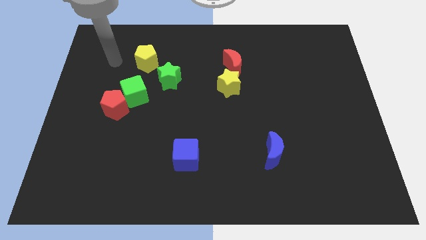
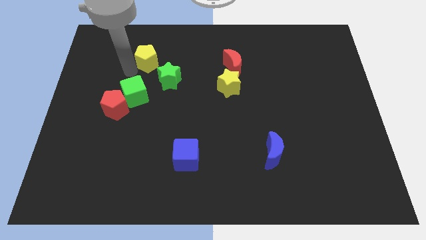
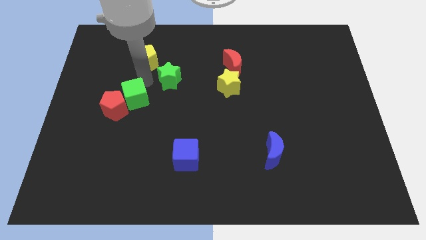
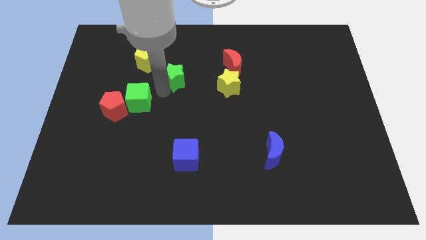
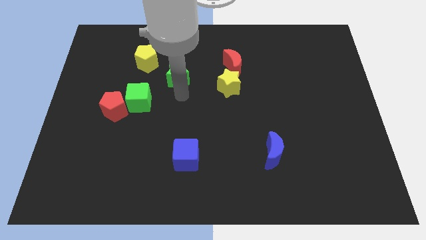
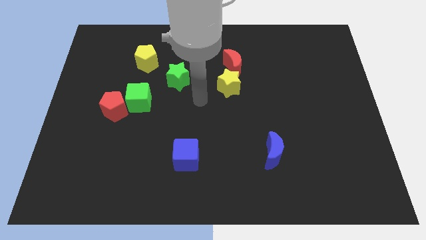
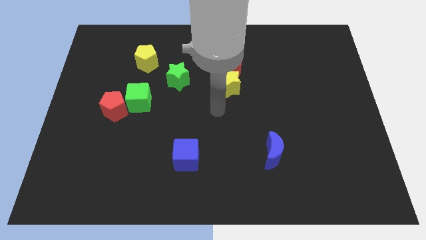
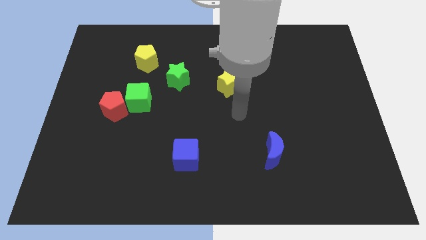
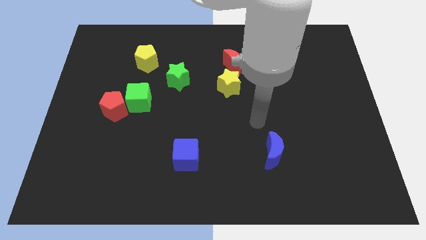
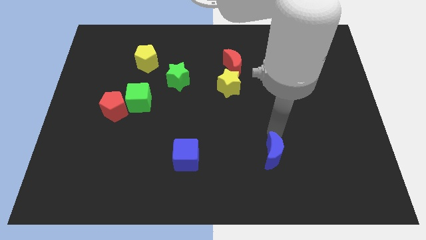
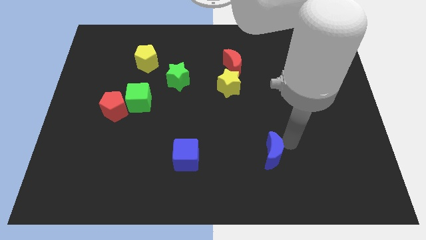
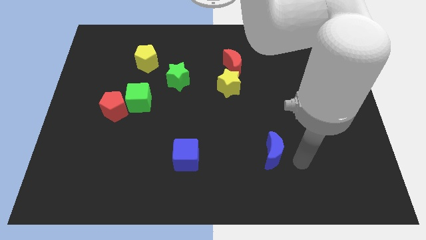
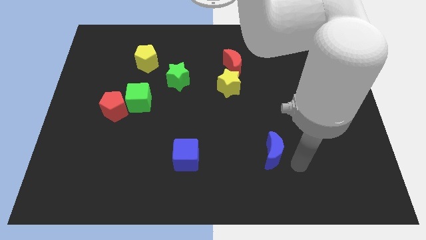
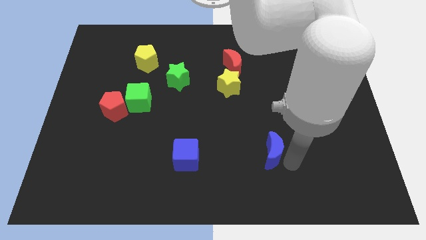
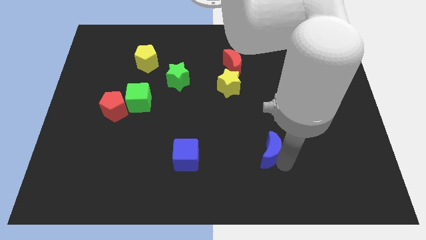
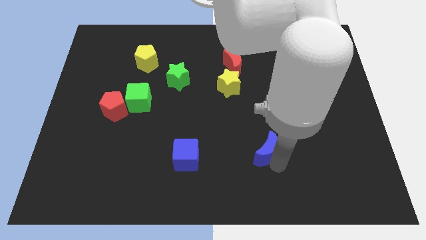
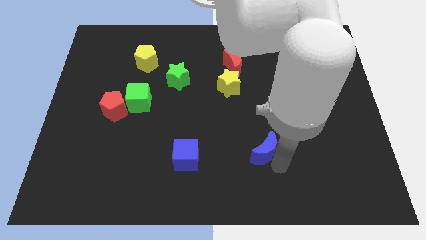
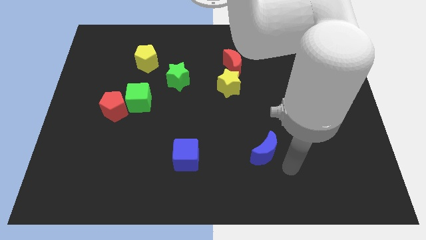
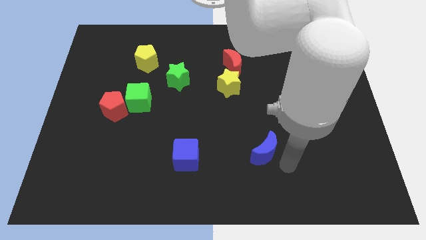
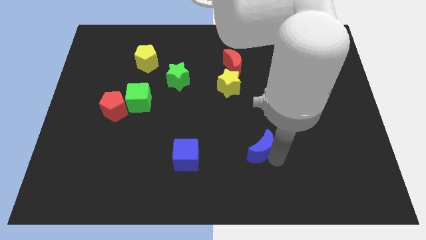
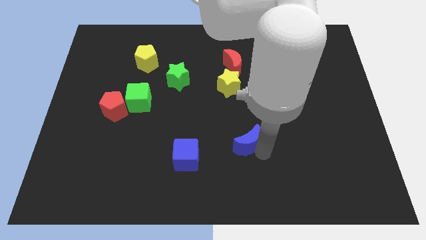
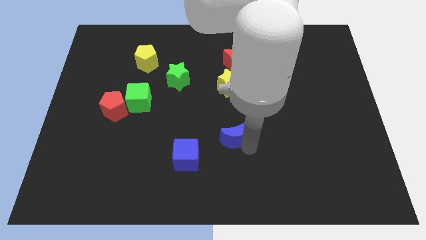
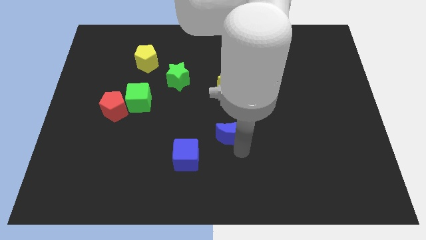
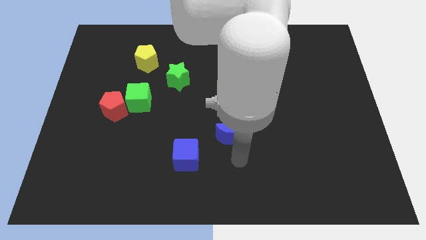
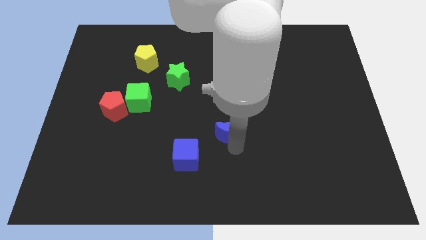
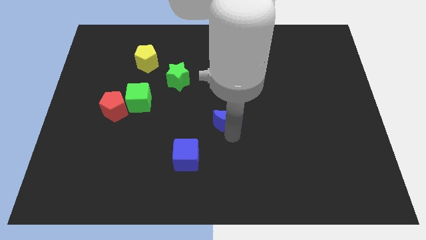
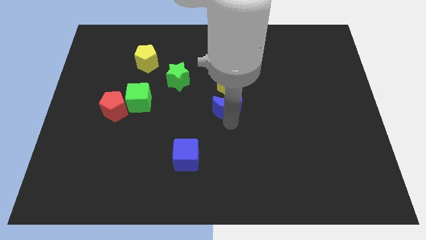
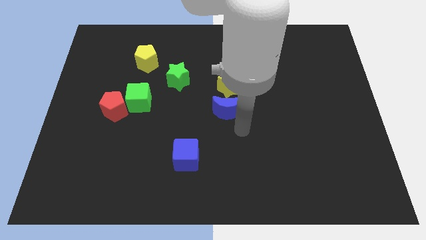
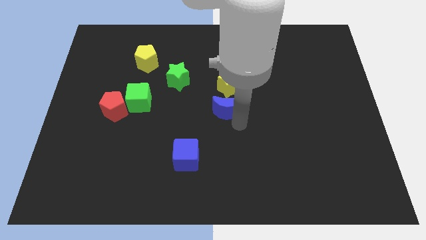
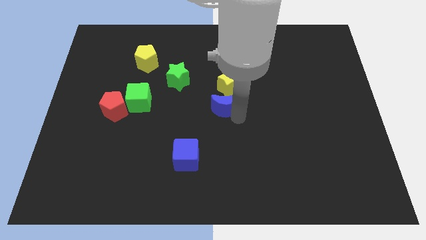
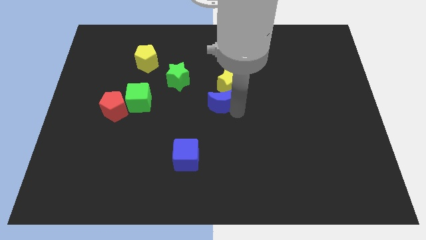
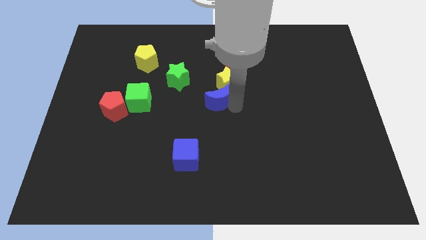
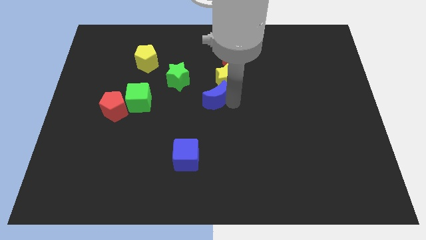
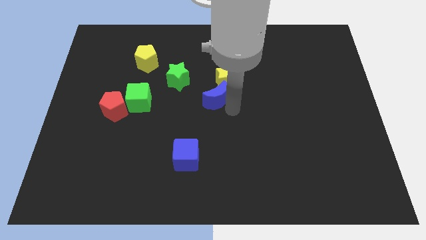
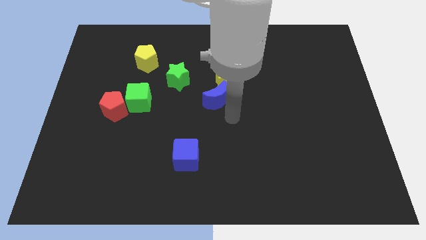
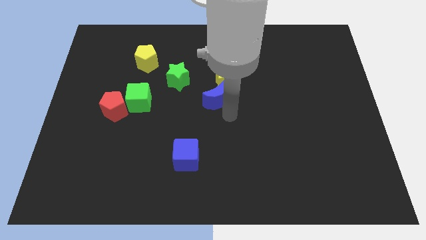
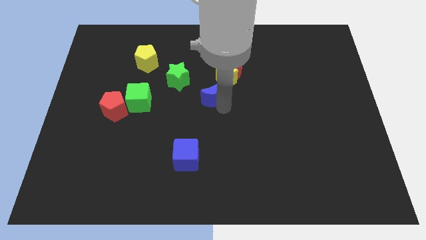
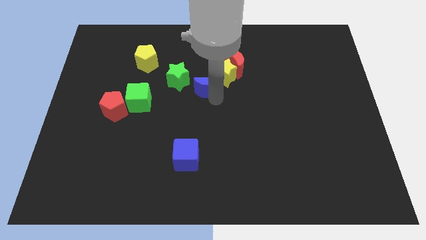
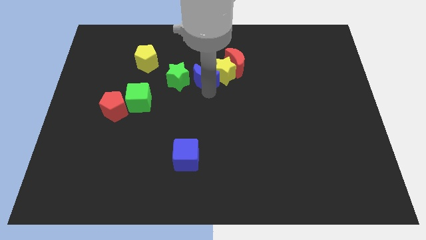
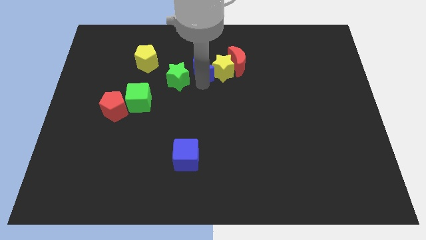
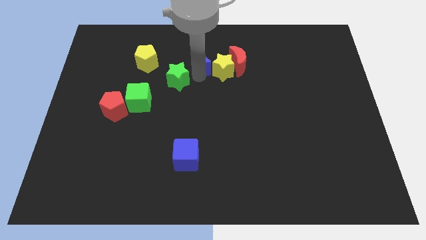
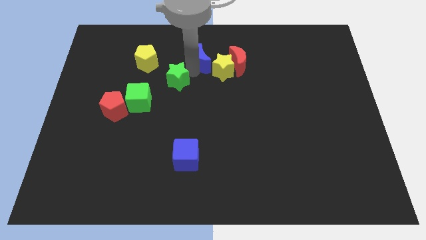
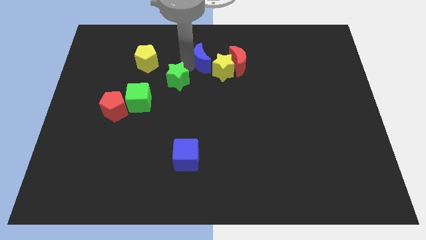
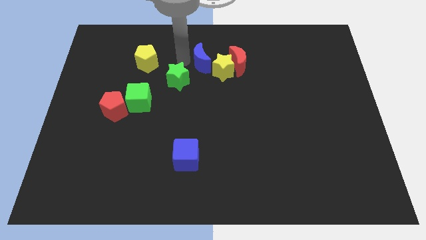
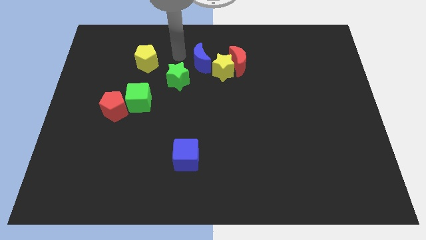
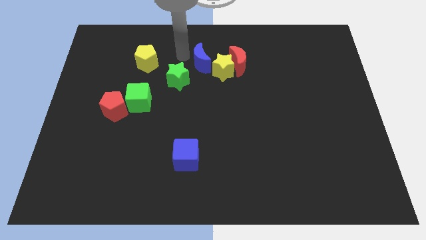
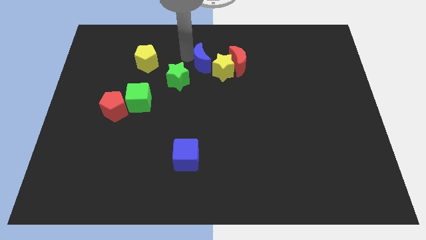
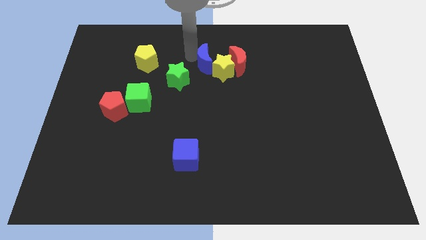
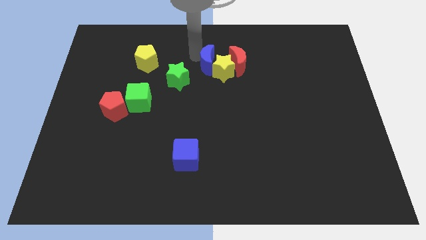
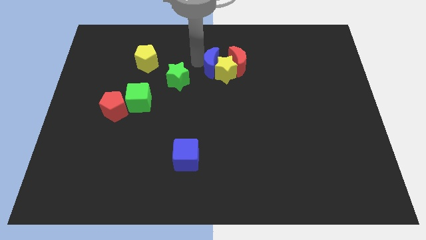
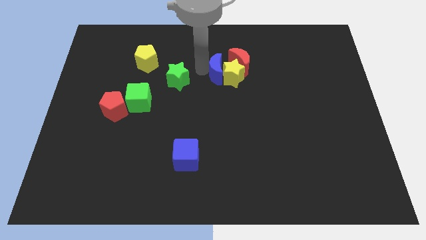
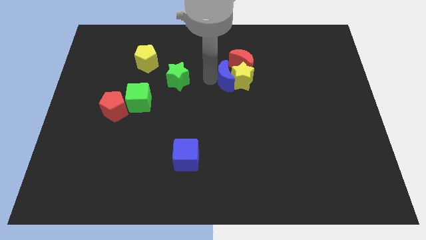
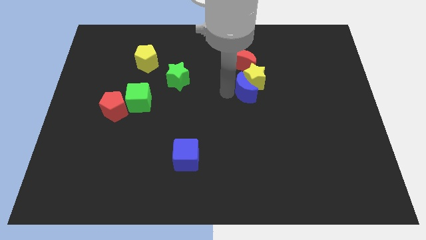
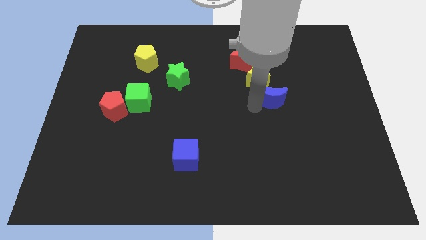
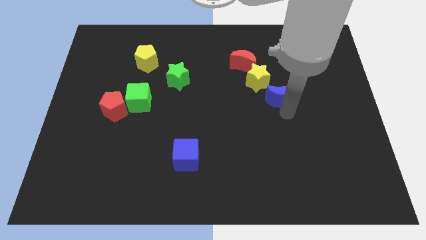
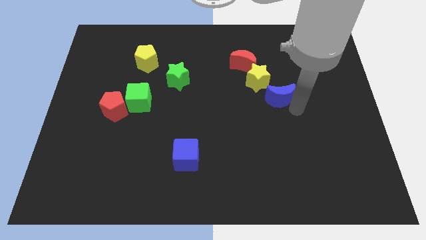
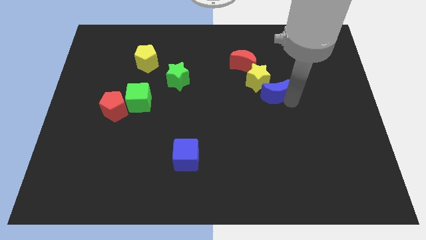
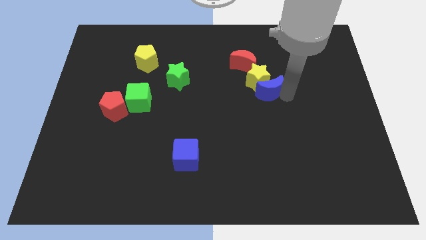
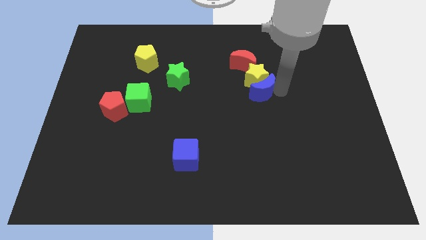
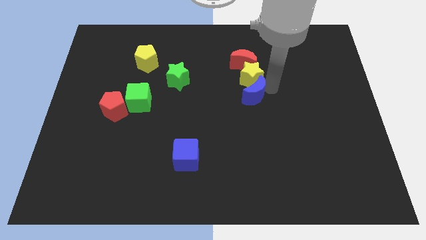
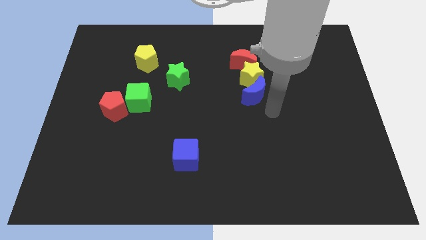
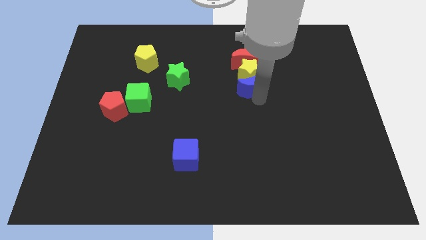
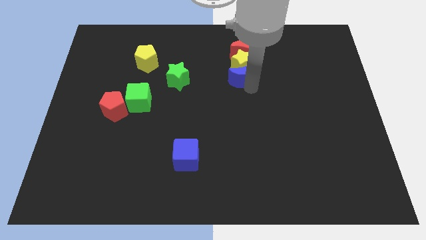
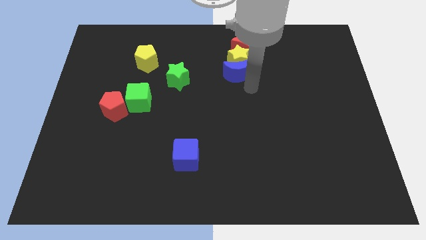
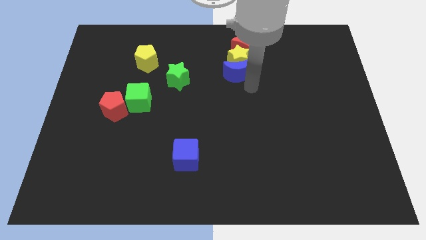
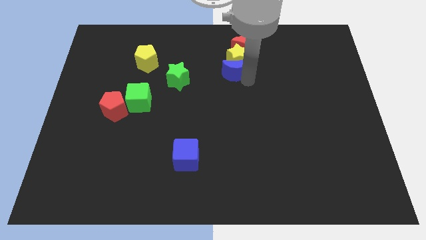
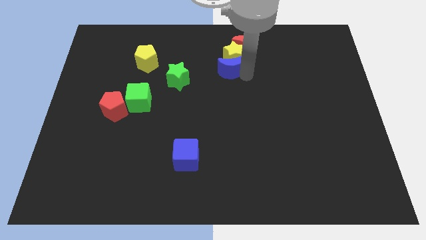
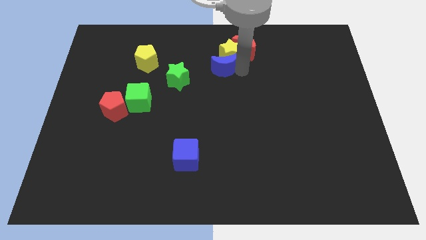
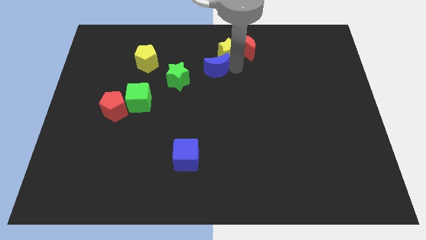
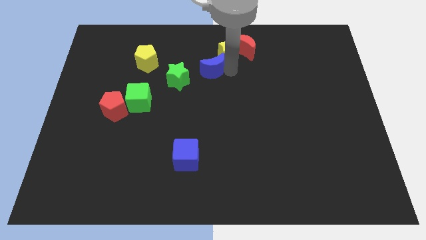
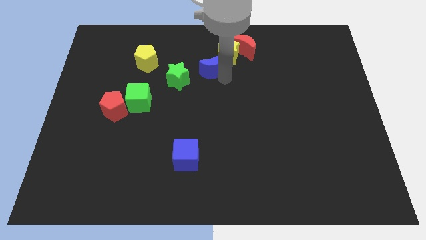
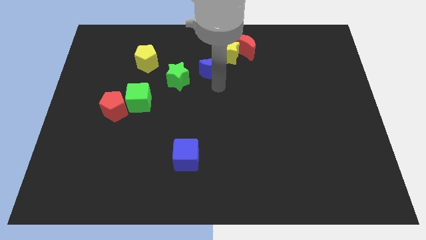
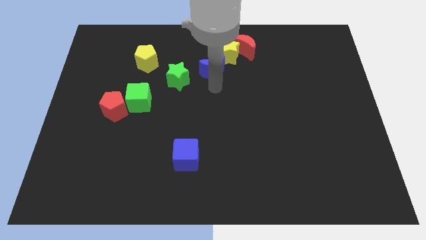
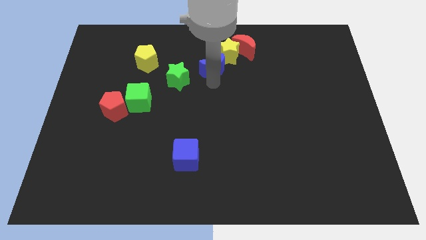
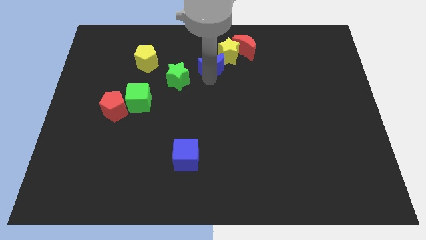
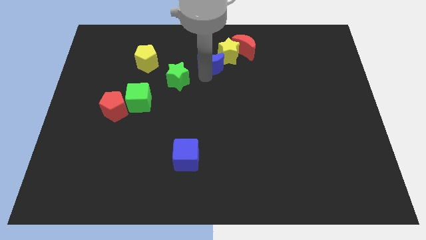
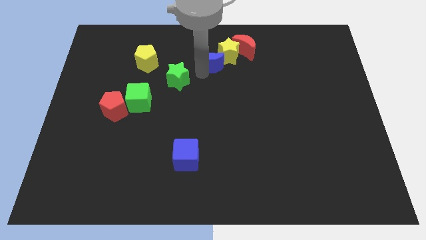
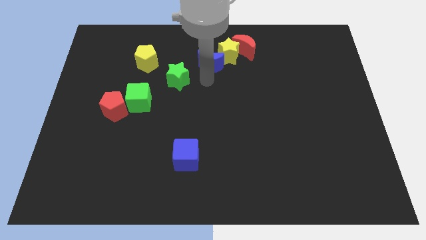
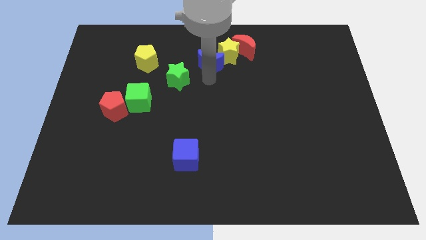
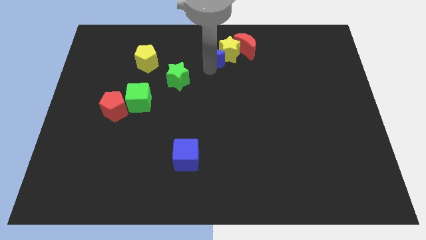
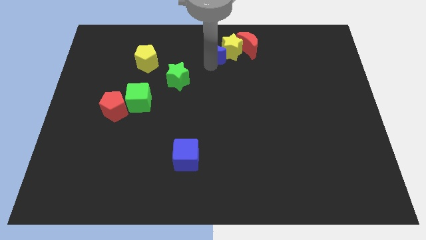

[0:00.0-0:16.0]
slide the blue moon to the towards your base
